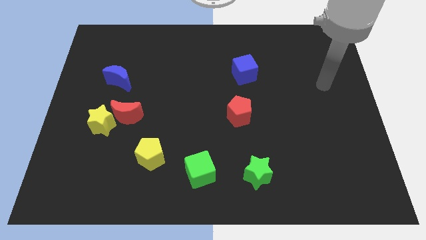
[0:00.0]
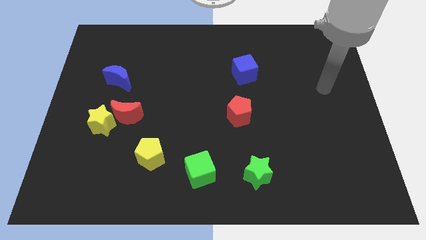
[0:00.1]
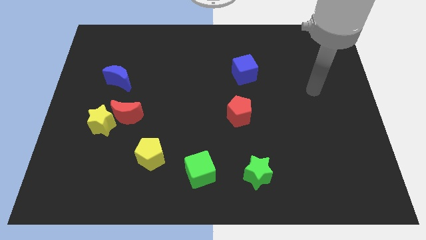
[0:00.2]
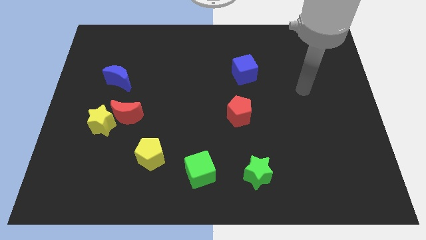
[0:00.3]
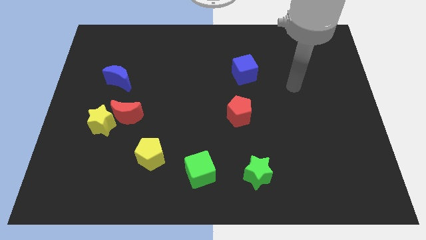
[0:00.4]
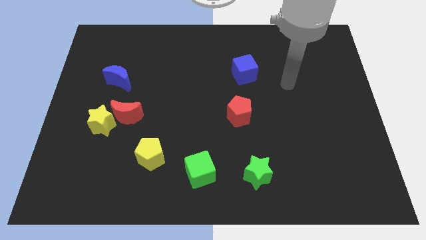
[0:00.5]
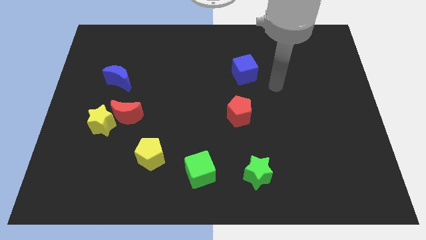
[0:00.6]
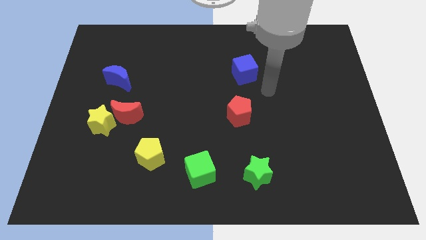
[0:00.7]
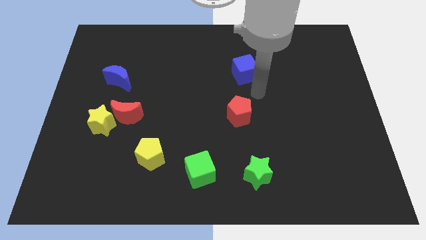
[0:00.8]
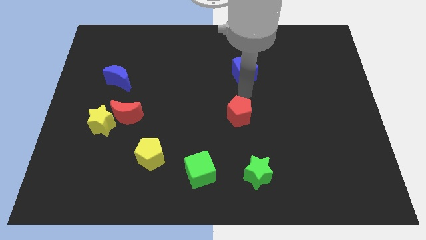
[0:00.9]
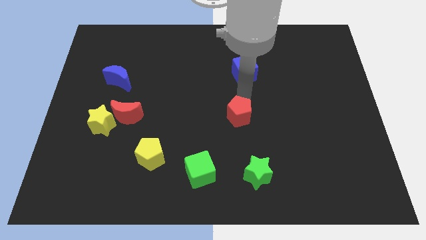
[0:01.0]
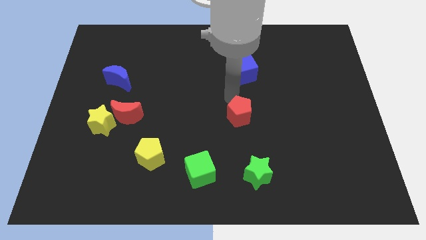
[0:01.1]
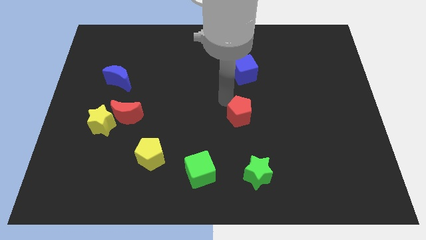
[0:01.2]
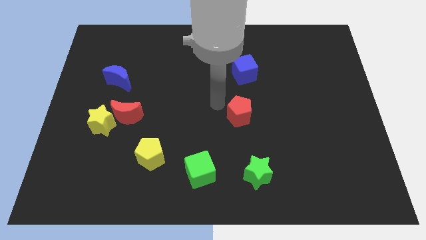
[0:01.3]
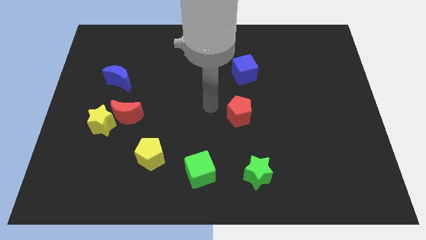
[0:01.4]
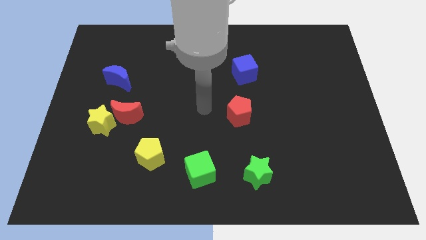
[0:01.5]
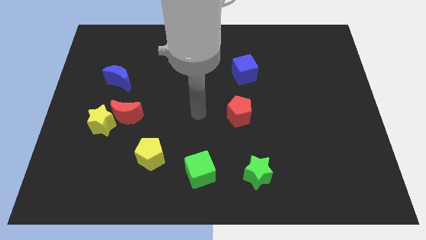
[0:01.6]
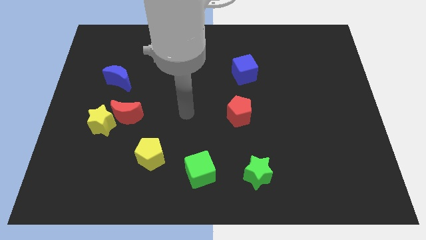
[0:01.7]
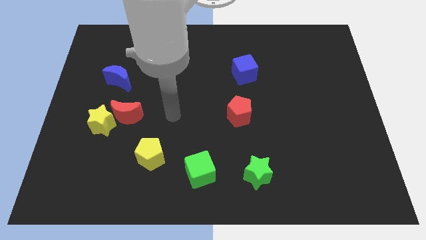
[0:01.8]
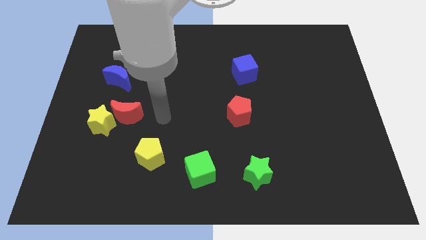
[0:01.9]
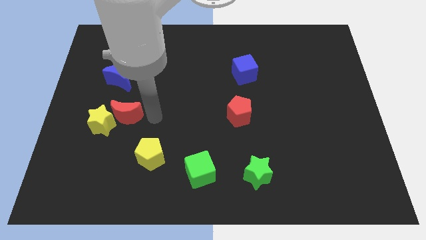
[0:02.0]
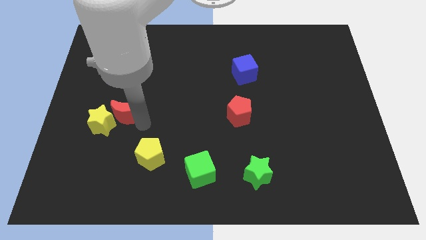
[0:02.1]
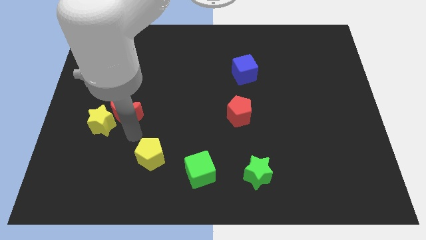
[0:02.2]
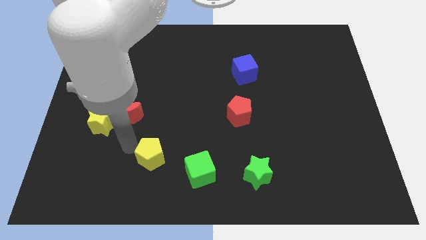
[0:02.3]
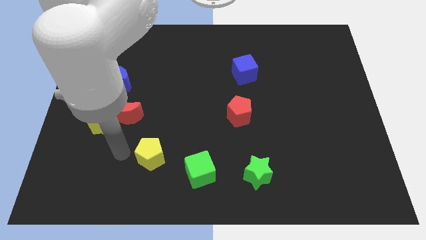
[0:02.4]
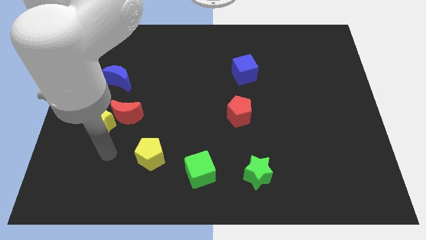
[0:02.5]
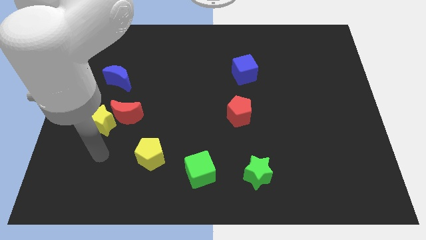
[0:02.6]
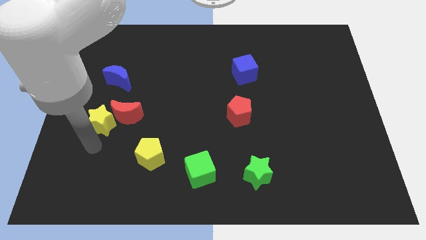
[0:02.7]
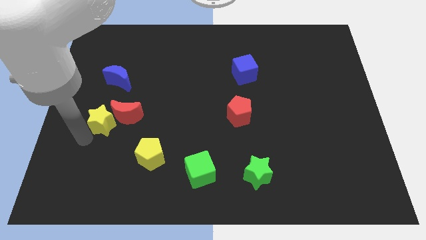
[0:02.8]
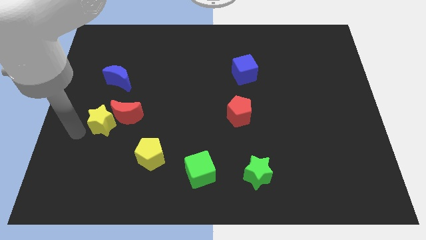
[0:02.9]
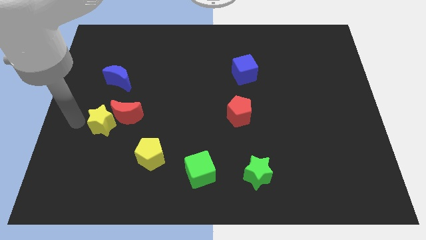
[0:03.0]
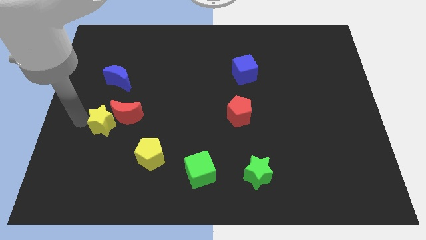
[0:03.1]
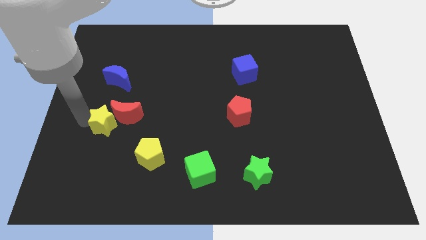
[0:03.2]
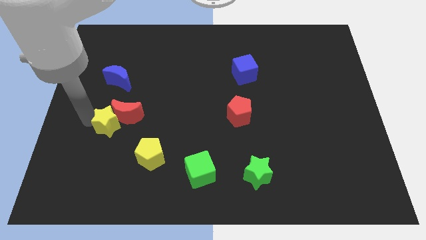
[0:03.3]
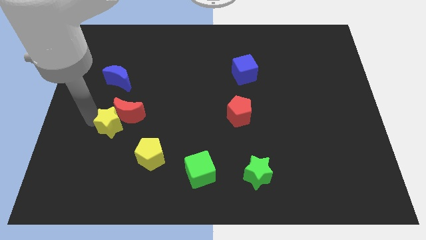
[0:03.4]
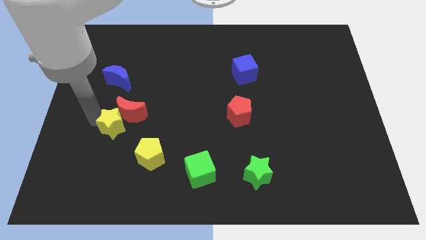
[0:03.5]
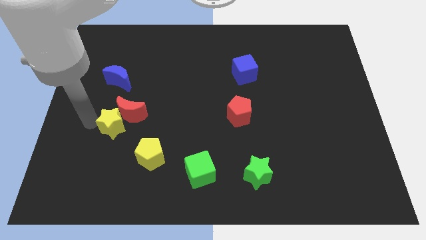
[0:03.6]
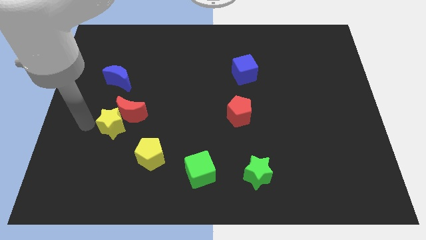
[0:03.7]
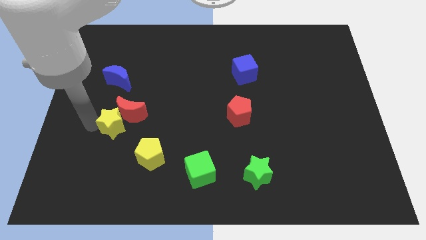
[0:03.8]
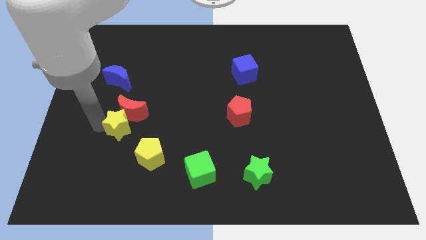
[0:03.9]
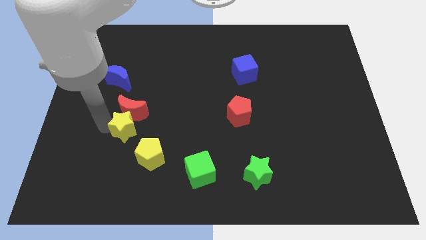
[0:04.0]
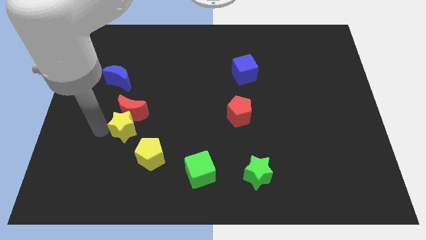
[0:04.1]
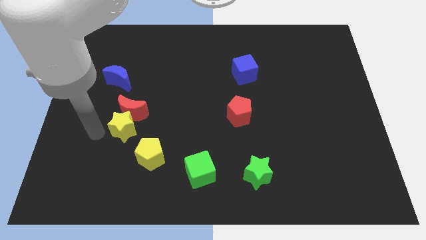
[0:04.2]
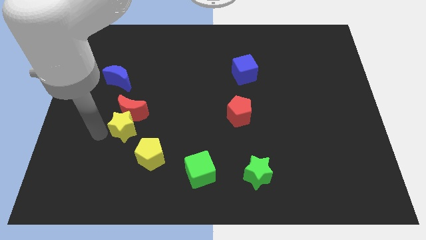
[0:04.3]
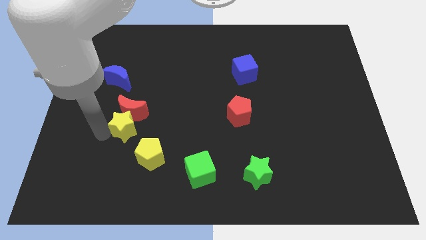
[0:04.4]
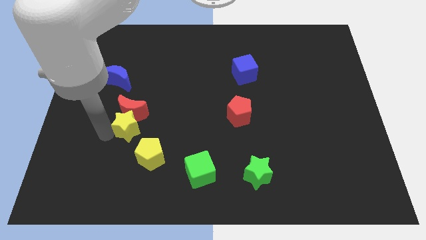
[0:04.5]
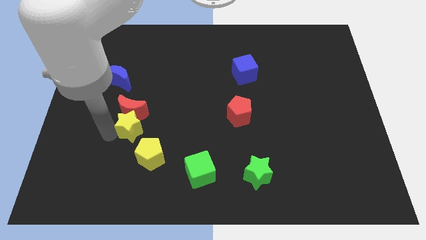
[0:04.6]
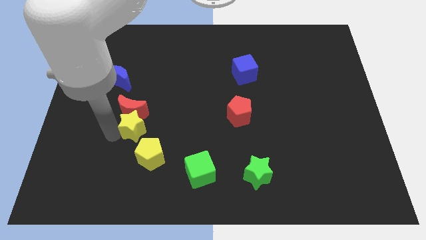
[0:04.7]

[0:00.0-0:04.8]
slightly push the yellow star right

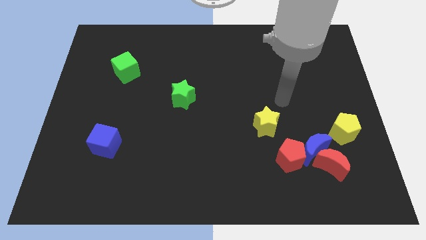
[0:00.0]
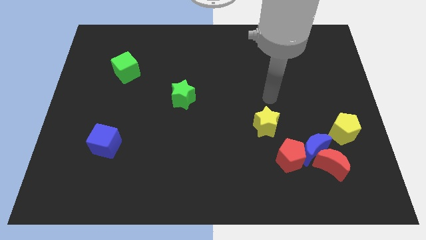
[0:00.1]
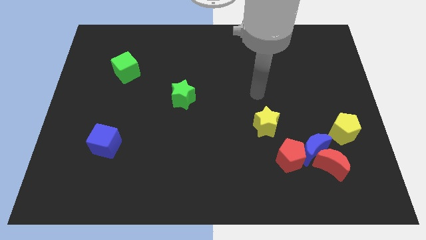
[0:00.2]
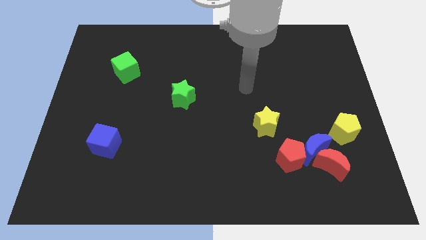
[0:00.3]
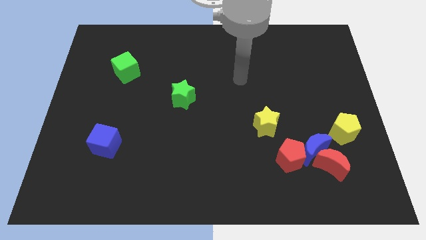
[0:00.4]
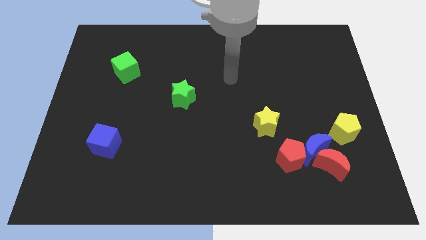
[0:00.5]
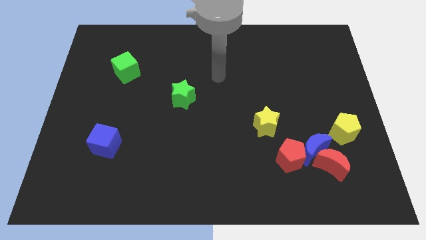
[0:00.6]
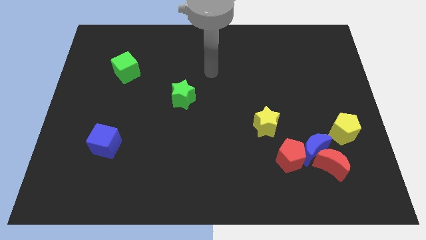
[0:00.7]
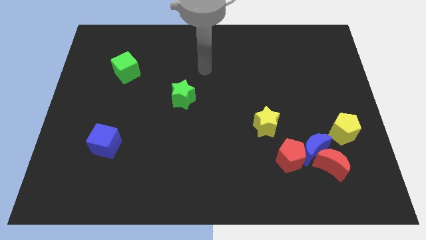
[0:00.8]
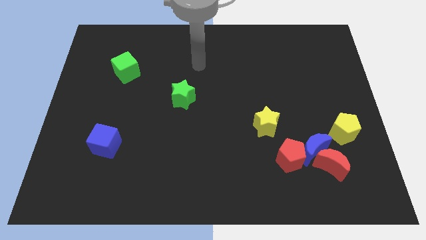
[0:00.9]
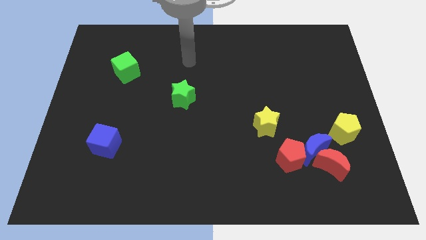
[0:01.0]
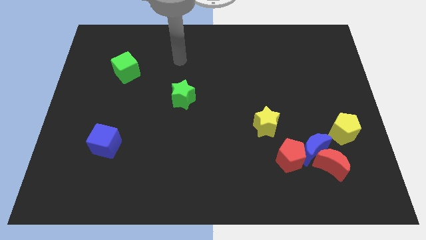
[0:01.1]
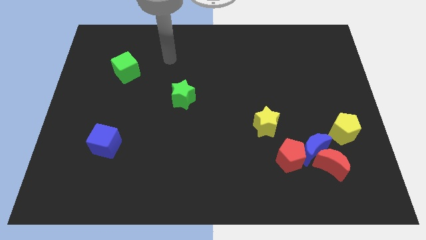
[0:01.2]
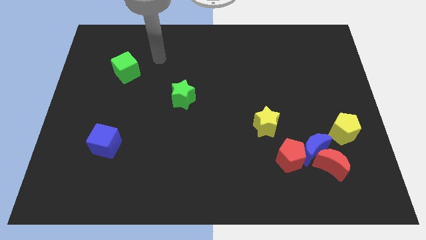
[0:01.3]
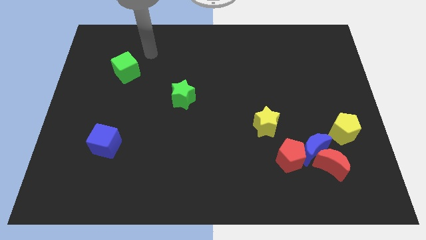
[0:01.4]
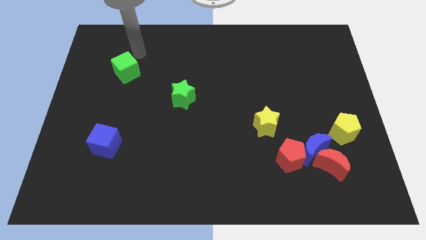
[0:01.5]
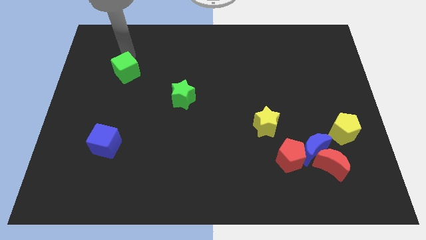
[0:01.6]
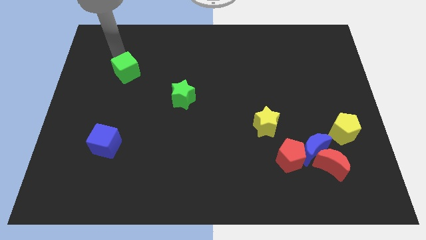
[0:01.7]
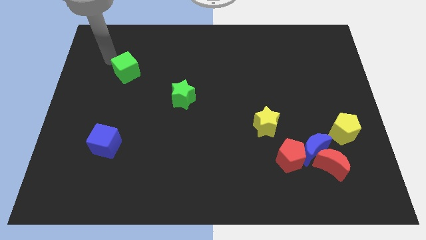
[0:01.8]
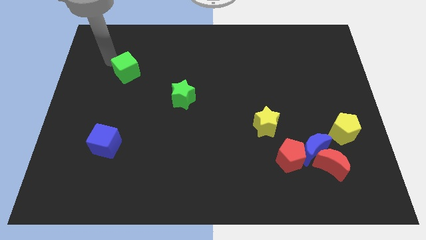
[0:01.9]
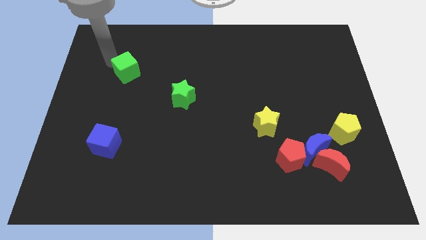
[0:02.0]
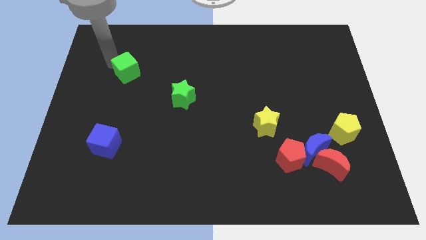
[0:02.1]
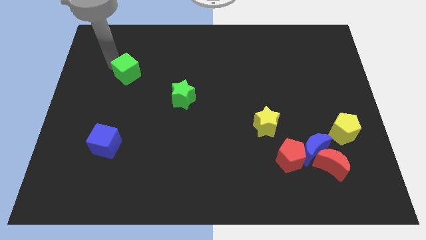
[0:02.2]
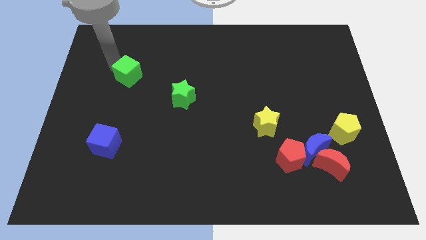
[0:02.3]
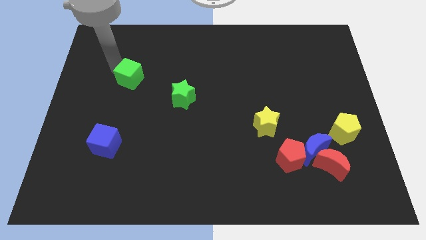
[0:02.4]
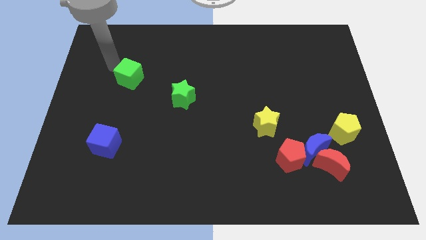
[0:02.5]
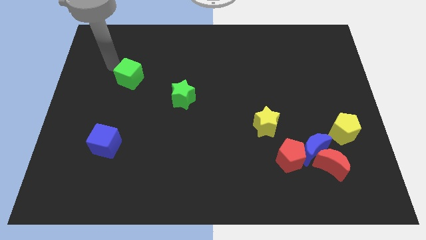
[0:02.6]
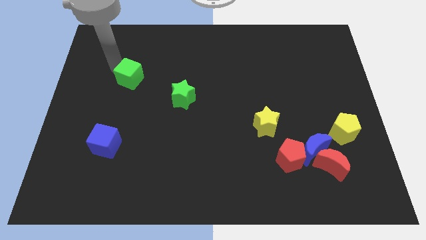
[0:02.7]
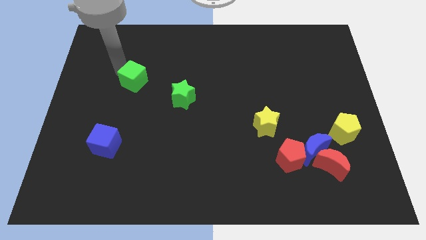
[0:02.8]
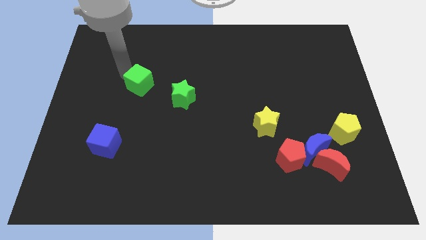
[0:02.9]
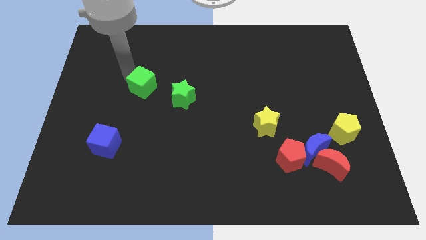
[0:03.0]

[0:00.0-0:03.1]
slightly slide the green cube down and then to the right

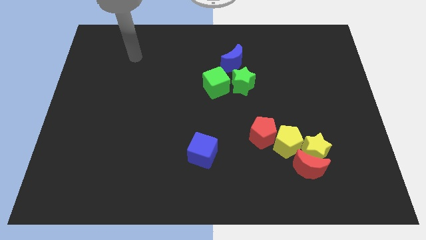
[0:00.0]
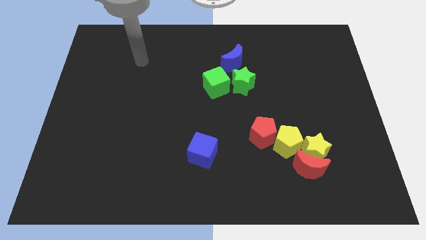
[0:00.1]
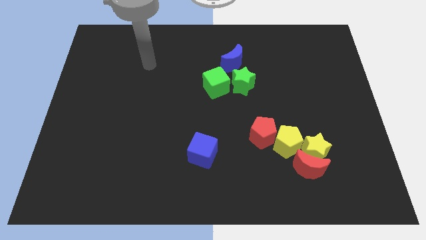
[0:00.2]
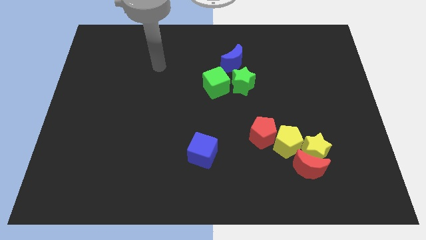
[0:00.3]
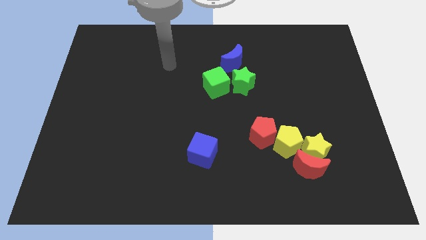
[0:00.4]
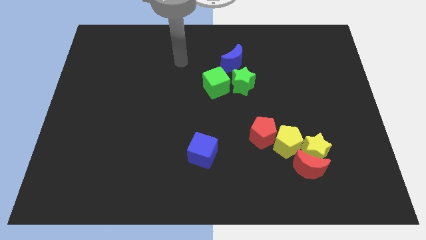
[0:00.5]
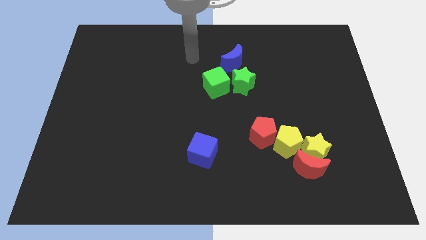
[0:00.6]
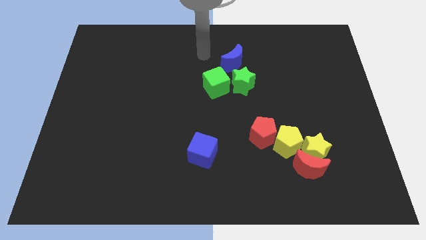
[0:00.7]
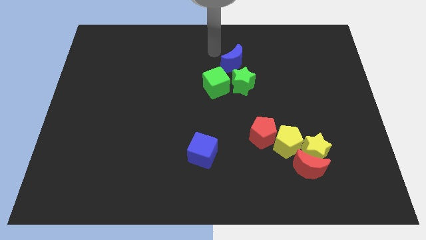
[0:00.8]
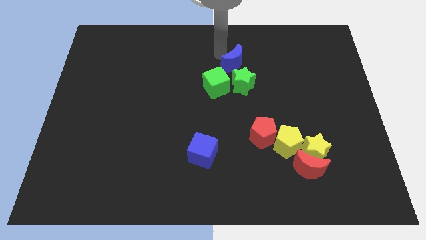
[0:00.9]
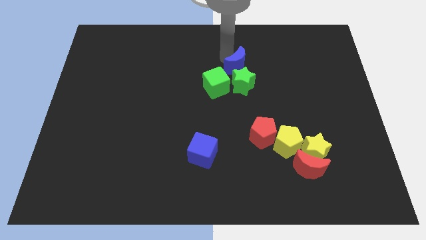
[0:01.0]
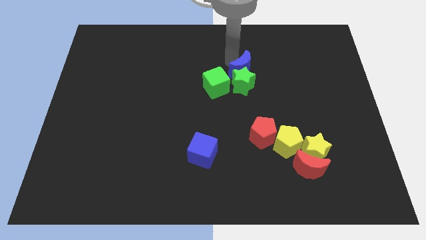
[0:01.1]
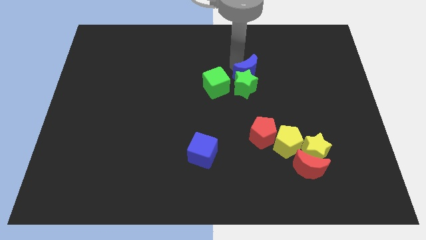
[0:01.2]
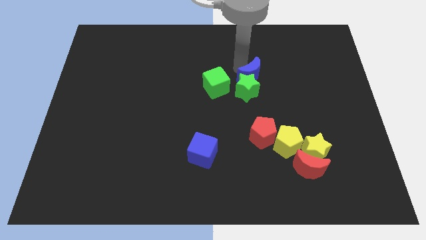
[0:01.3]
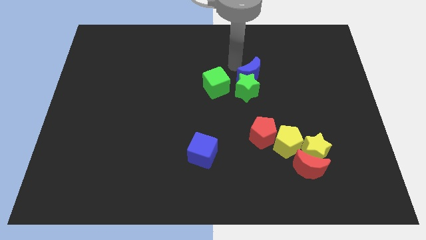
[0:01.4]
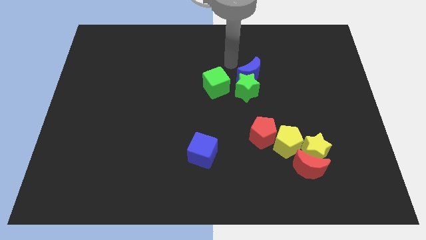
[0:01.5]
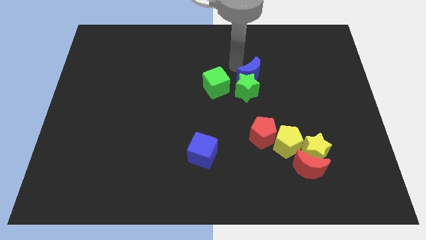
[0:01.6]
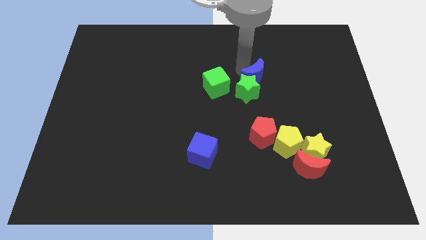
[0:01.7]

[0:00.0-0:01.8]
slide the blue moon a little bit down and then right
